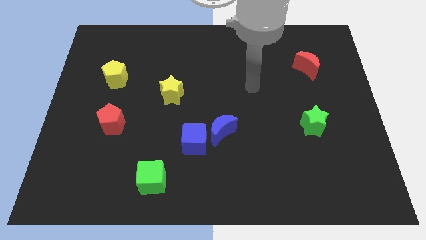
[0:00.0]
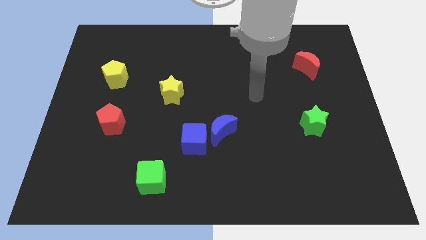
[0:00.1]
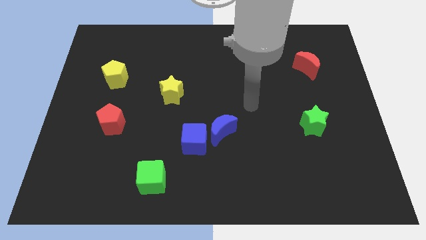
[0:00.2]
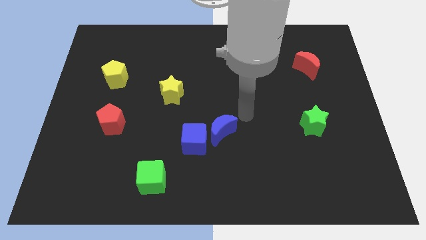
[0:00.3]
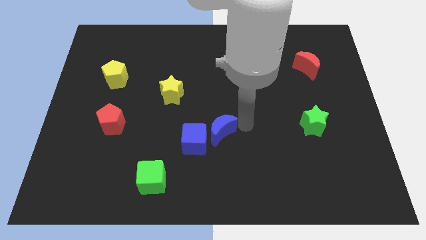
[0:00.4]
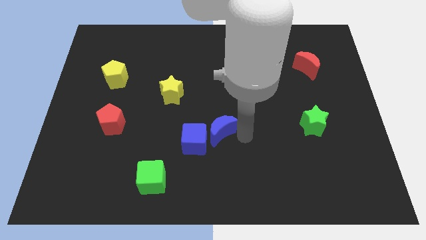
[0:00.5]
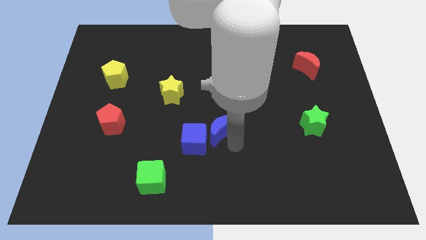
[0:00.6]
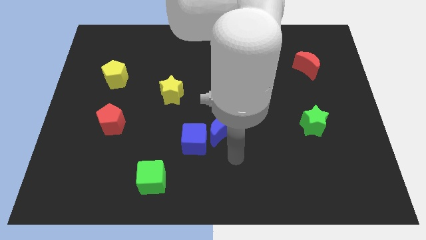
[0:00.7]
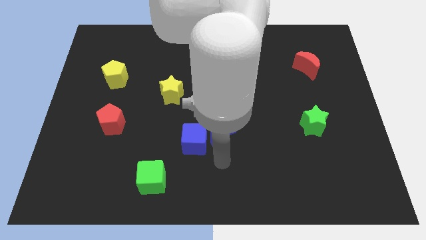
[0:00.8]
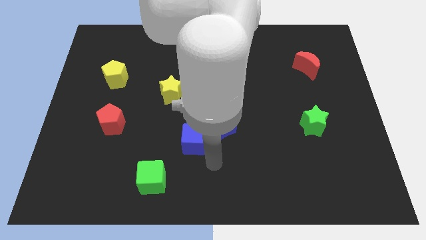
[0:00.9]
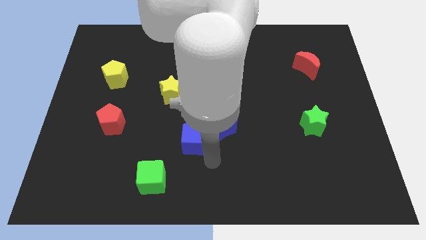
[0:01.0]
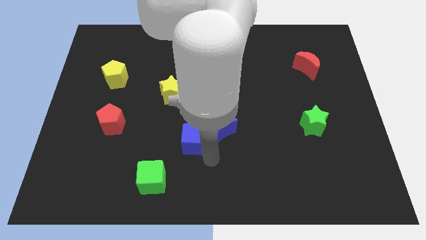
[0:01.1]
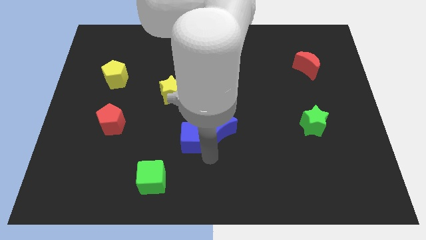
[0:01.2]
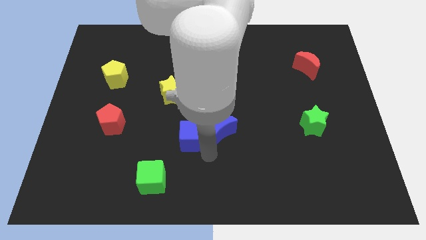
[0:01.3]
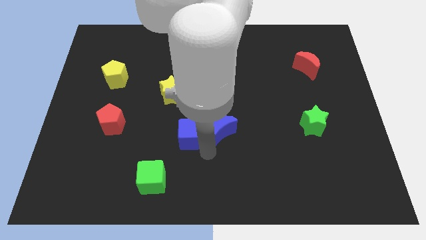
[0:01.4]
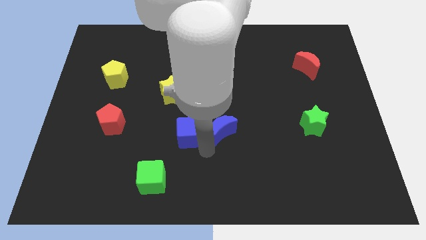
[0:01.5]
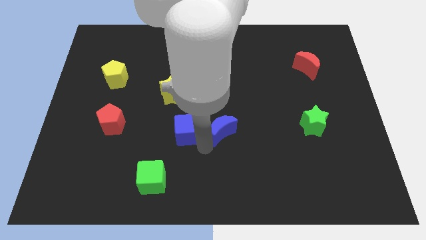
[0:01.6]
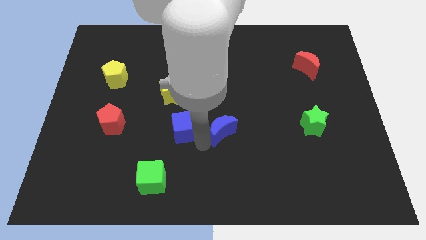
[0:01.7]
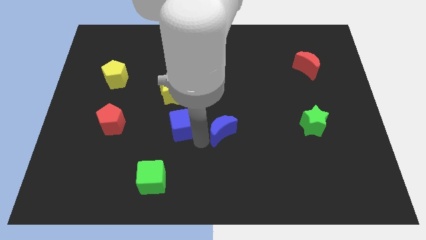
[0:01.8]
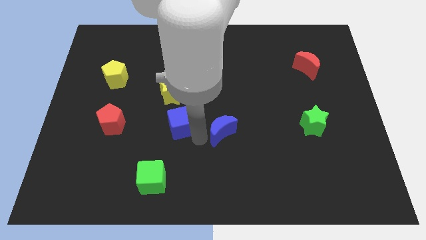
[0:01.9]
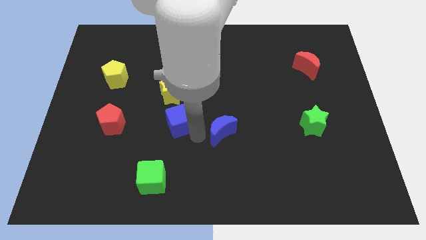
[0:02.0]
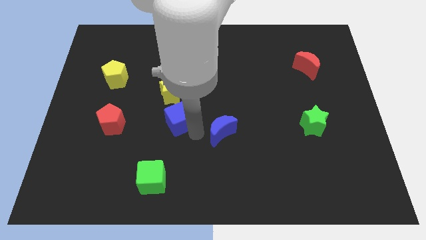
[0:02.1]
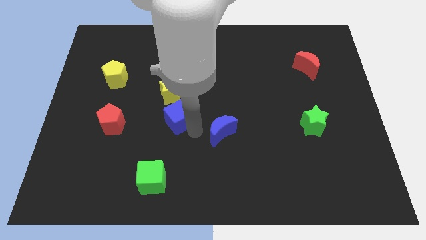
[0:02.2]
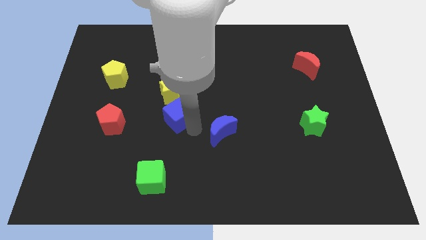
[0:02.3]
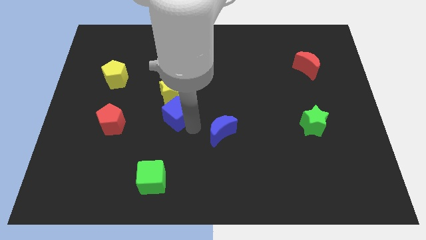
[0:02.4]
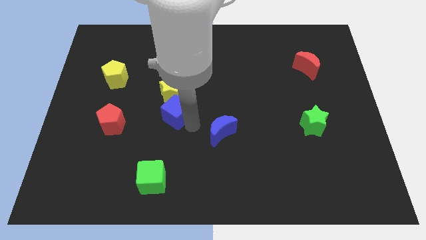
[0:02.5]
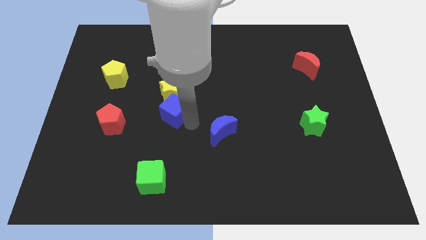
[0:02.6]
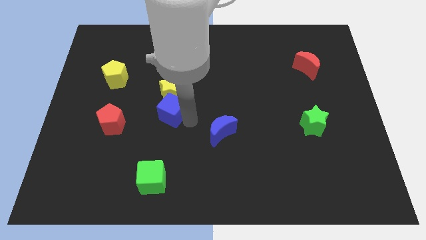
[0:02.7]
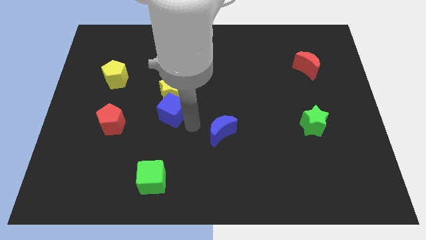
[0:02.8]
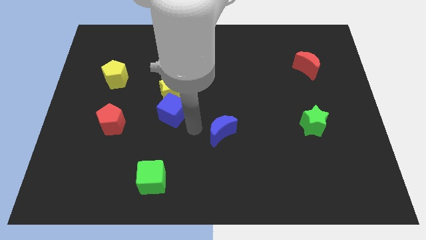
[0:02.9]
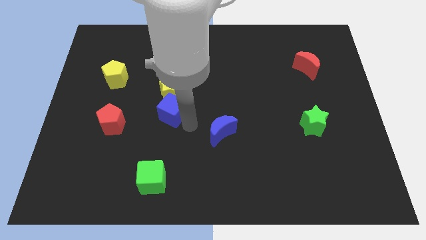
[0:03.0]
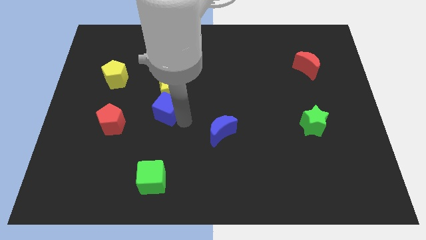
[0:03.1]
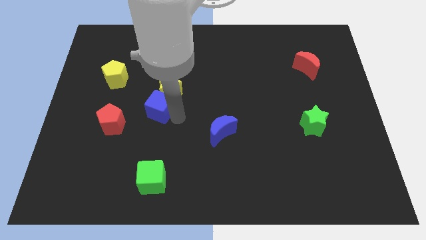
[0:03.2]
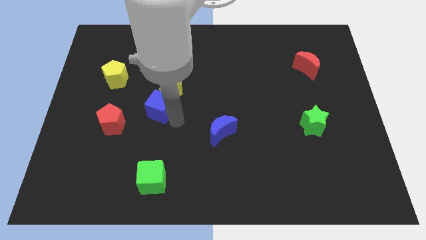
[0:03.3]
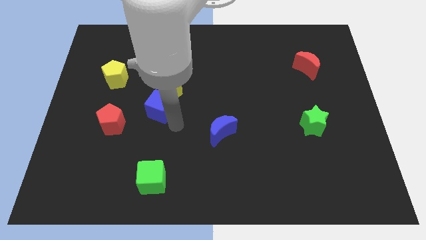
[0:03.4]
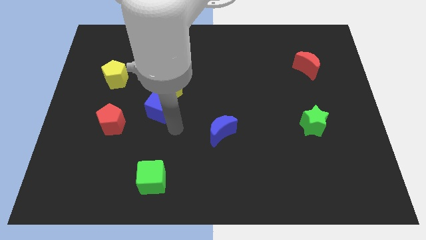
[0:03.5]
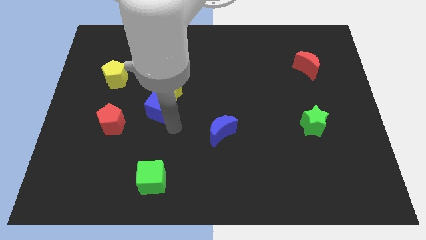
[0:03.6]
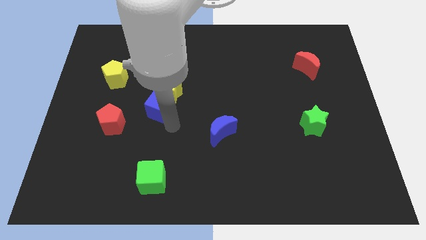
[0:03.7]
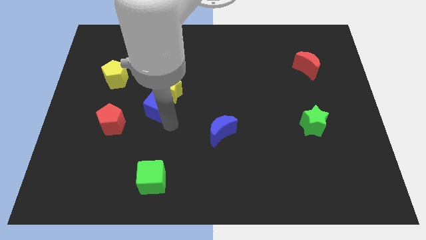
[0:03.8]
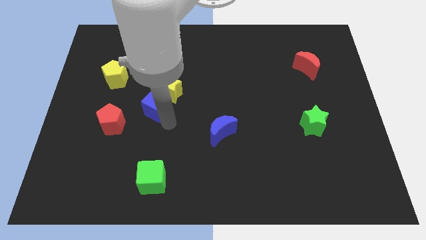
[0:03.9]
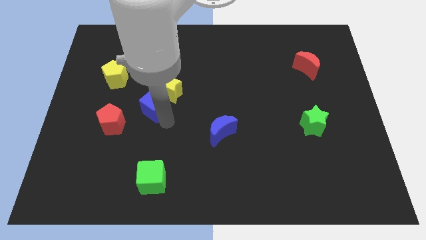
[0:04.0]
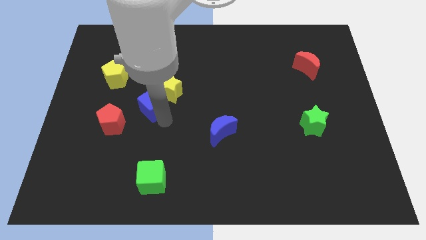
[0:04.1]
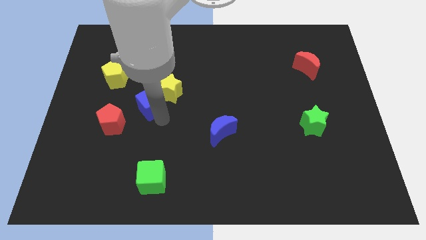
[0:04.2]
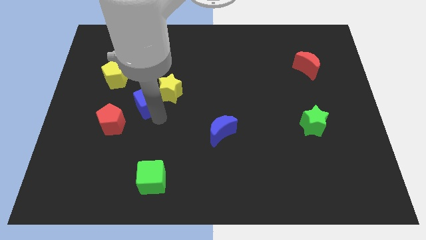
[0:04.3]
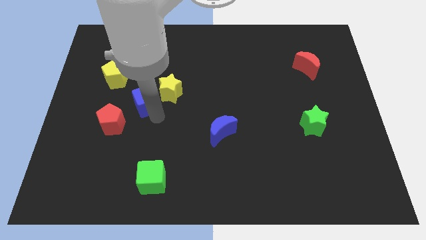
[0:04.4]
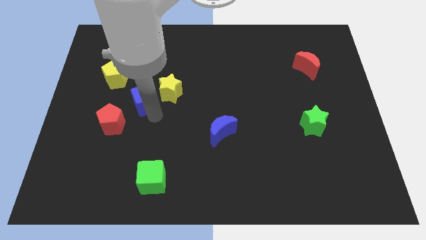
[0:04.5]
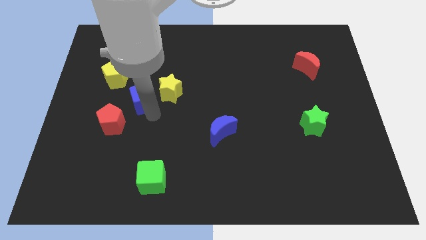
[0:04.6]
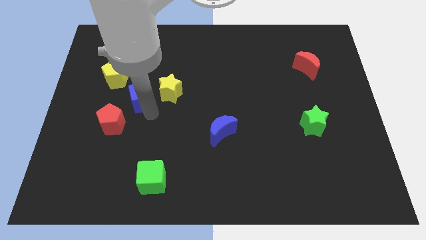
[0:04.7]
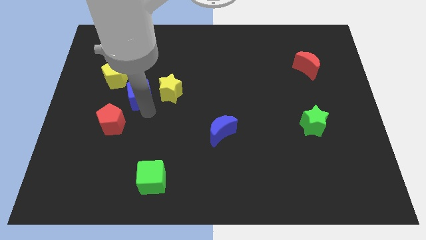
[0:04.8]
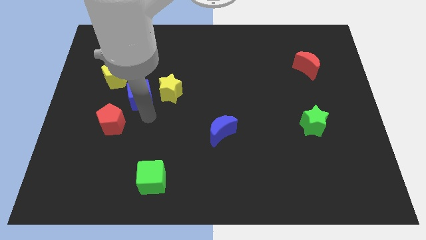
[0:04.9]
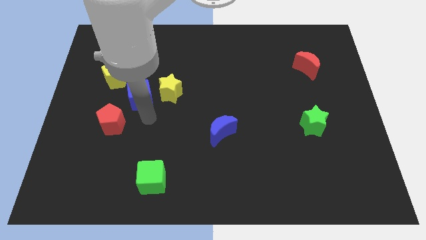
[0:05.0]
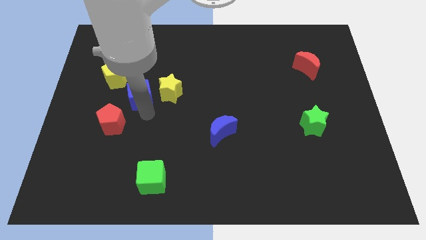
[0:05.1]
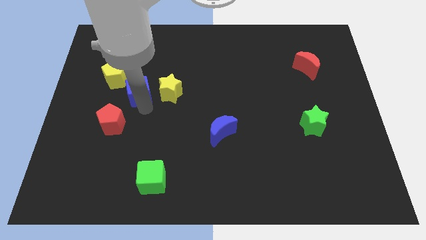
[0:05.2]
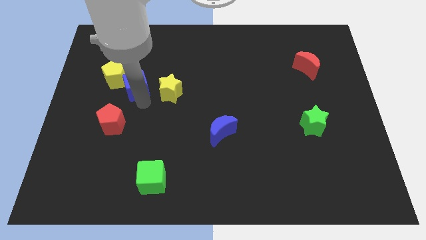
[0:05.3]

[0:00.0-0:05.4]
push the blue cube upwards and to the left

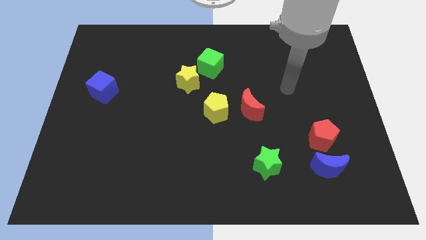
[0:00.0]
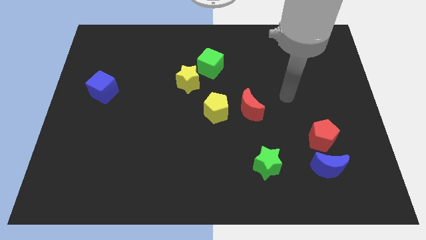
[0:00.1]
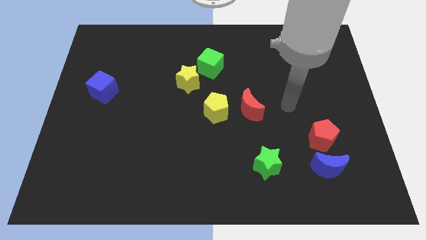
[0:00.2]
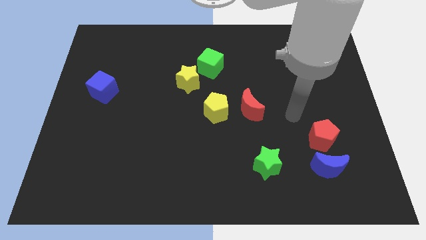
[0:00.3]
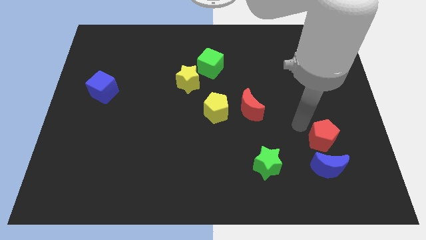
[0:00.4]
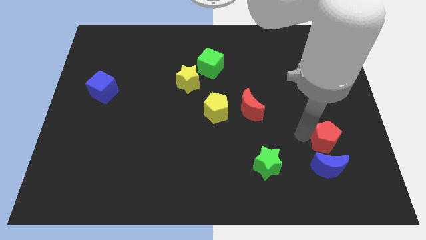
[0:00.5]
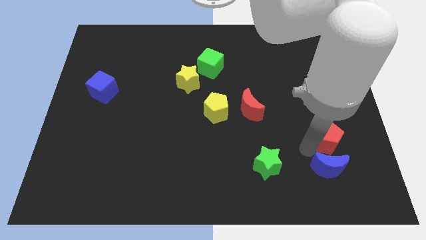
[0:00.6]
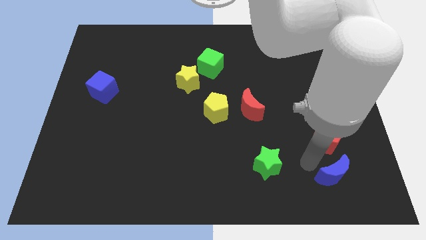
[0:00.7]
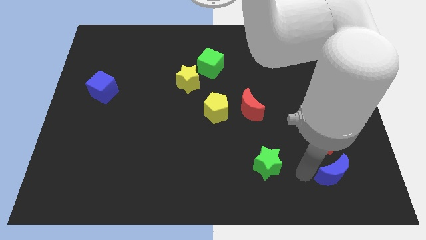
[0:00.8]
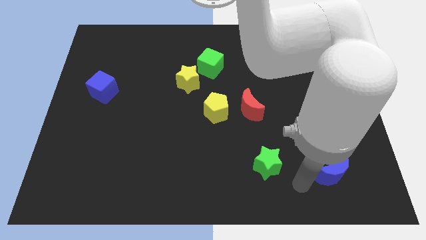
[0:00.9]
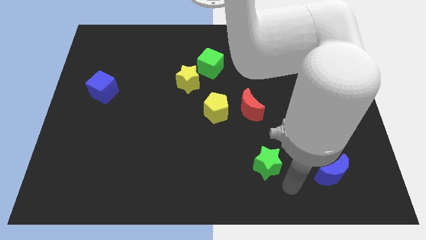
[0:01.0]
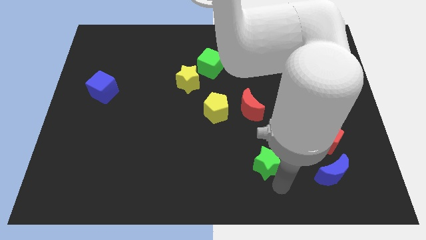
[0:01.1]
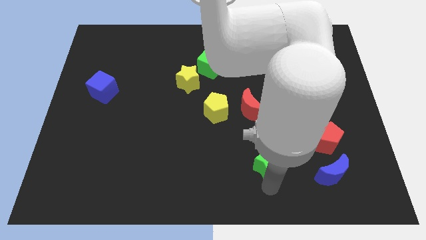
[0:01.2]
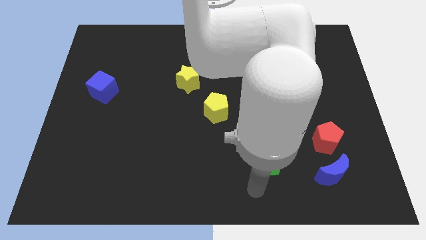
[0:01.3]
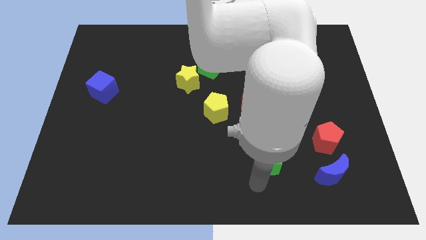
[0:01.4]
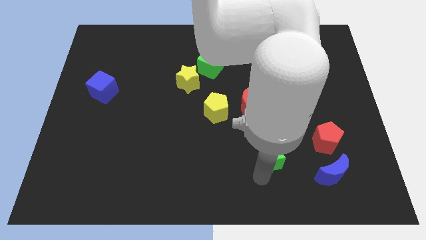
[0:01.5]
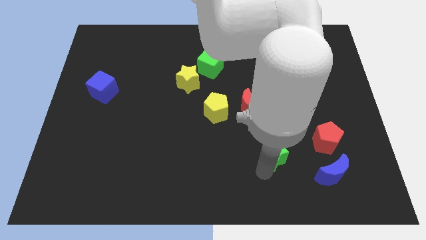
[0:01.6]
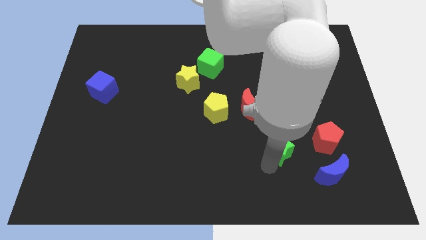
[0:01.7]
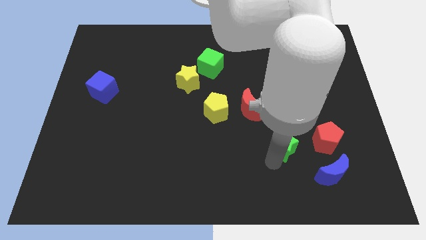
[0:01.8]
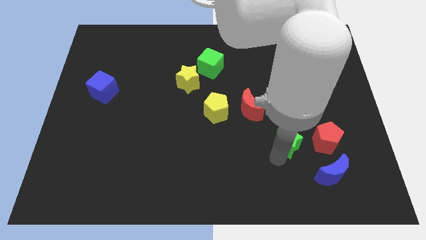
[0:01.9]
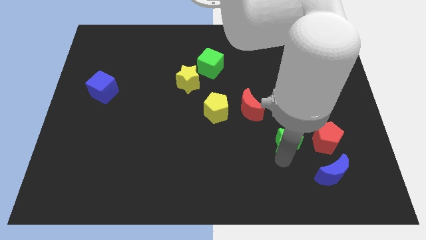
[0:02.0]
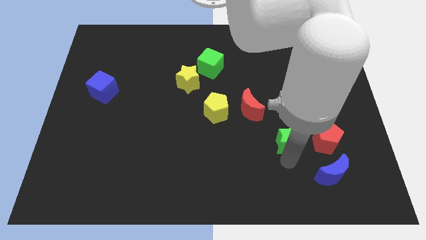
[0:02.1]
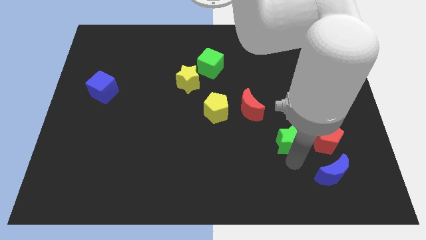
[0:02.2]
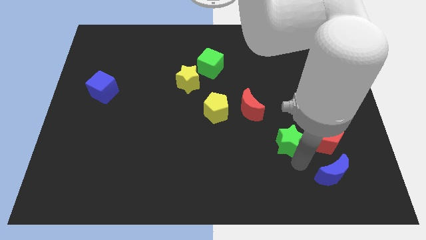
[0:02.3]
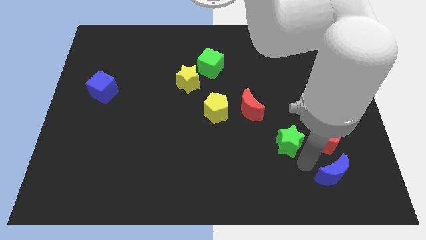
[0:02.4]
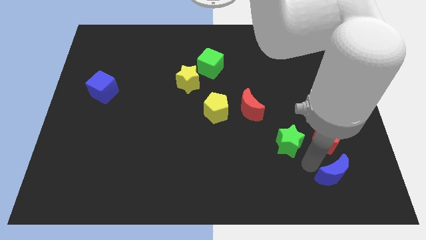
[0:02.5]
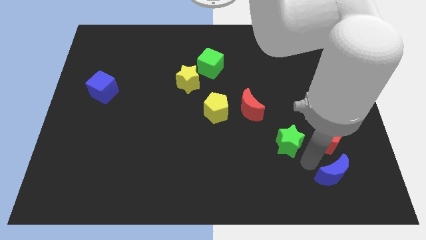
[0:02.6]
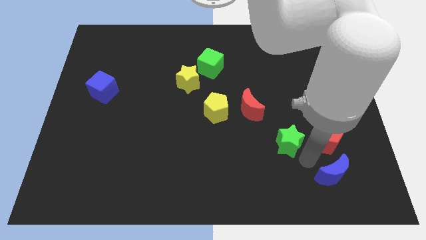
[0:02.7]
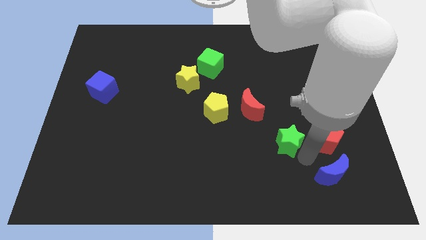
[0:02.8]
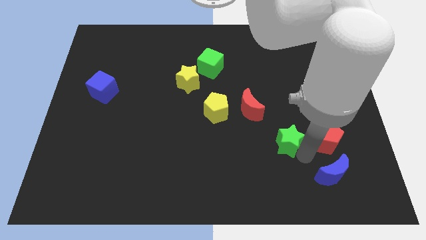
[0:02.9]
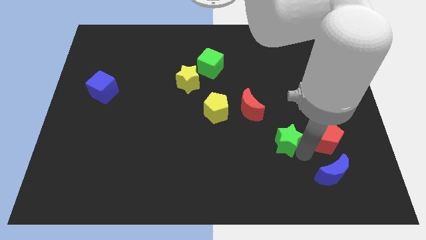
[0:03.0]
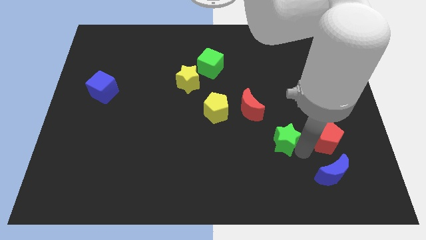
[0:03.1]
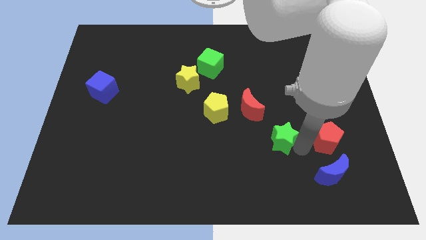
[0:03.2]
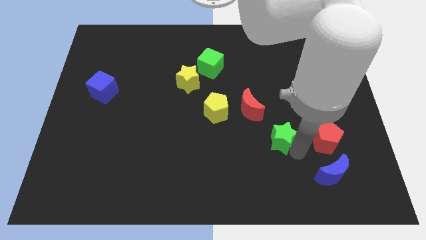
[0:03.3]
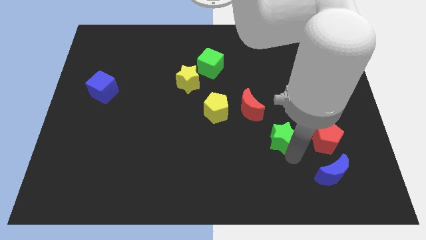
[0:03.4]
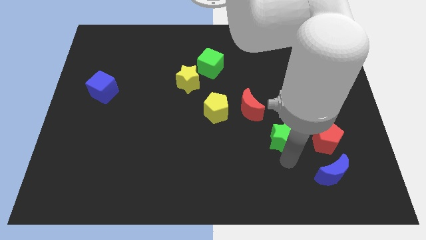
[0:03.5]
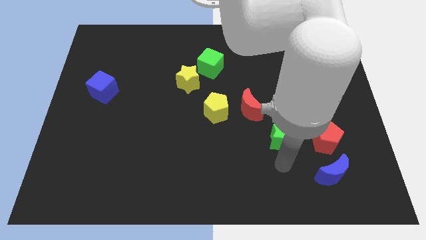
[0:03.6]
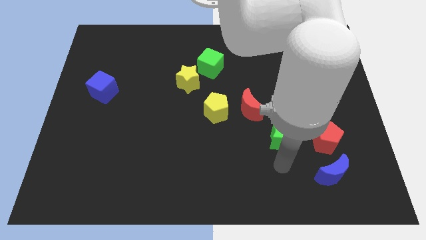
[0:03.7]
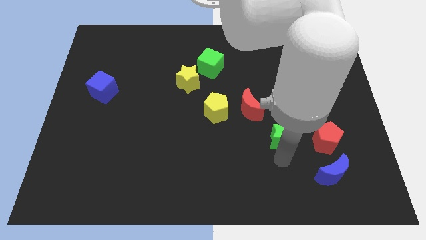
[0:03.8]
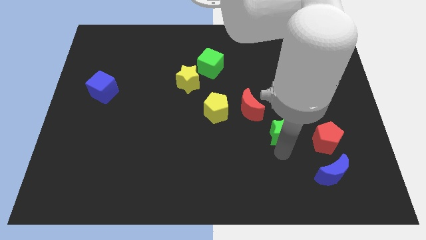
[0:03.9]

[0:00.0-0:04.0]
push the green star slightly up
